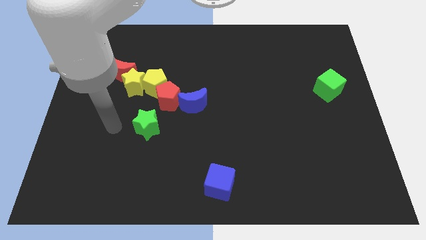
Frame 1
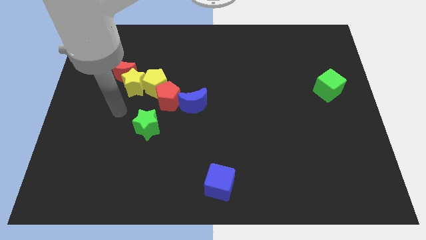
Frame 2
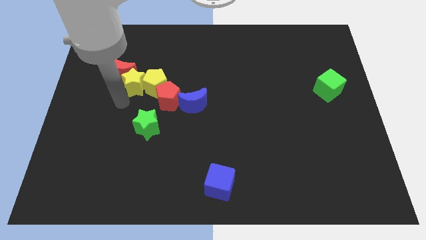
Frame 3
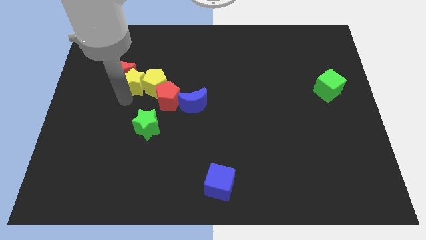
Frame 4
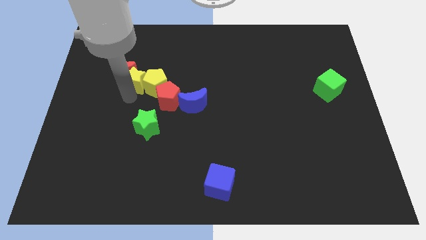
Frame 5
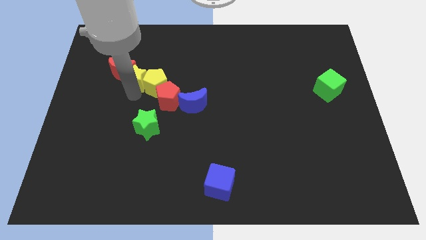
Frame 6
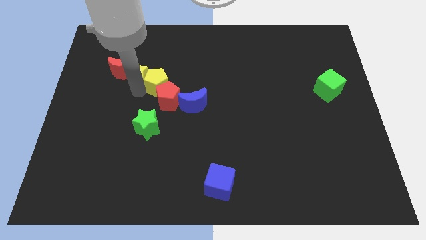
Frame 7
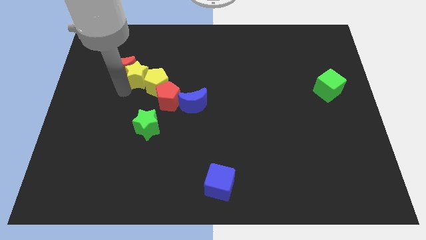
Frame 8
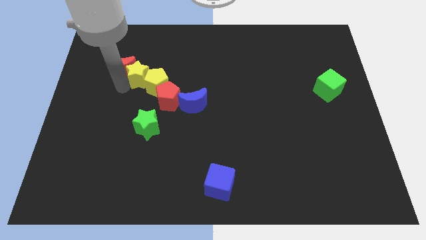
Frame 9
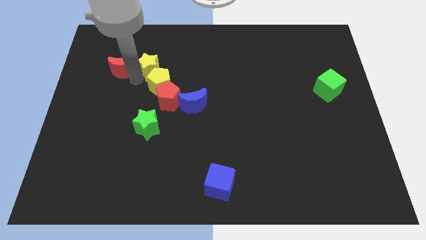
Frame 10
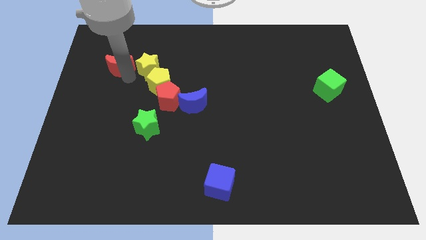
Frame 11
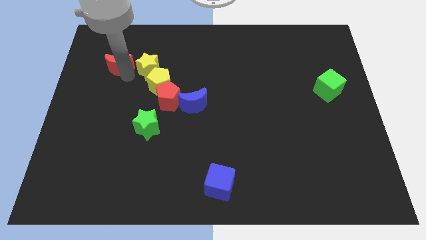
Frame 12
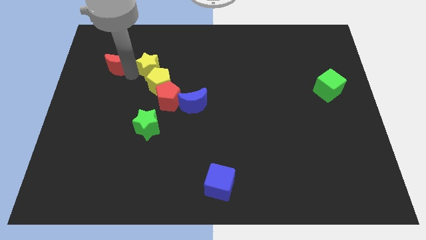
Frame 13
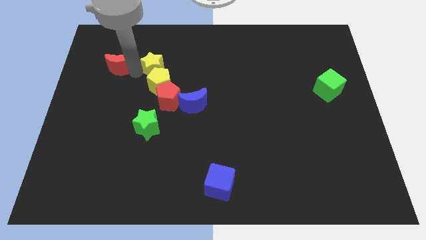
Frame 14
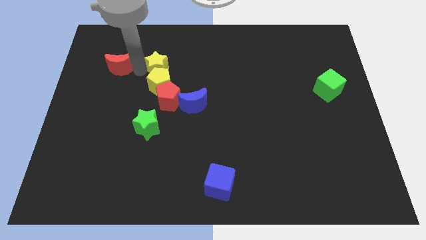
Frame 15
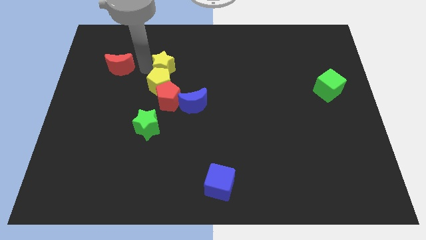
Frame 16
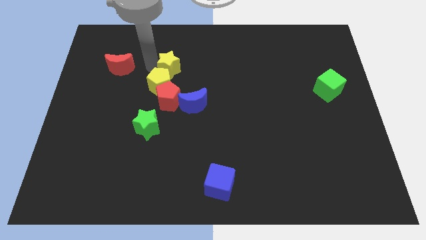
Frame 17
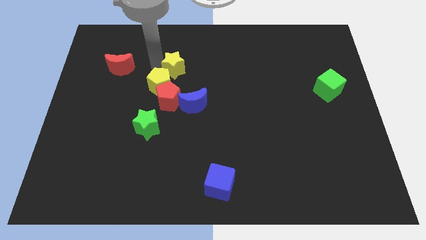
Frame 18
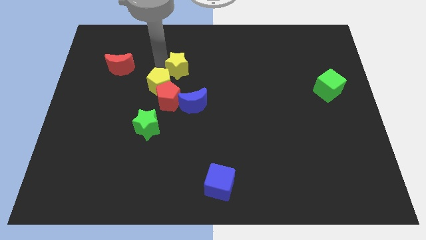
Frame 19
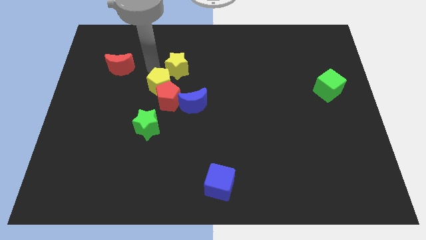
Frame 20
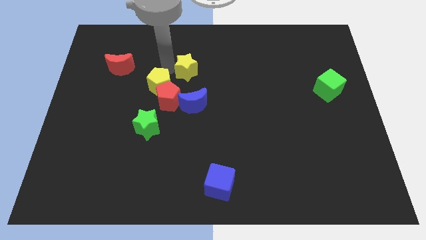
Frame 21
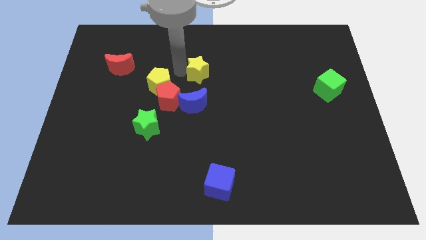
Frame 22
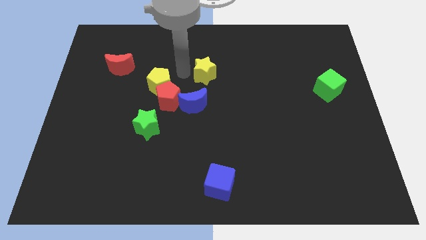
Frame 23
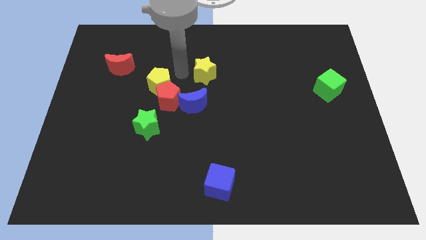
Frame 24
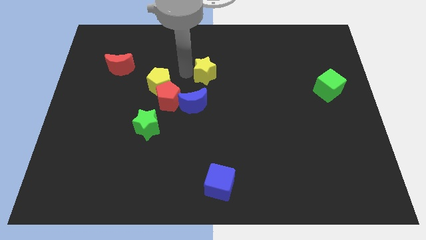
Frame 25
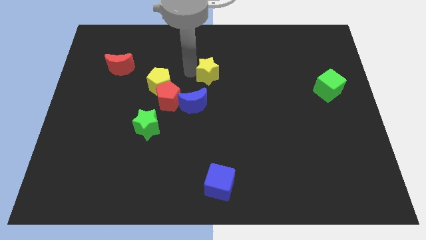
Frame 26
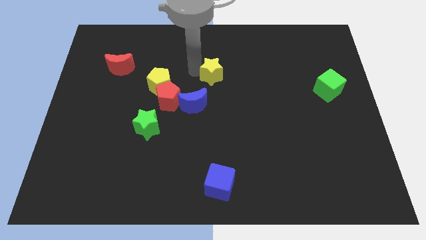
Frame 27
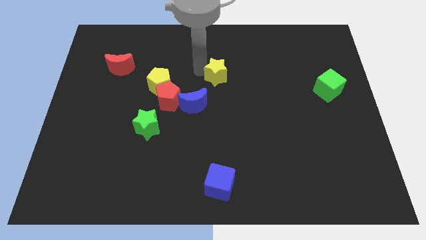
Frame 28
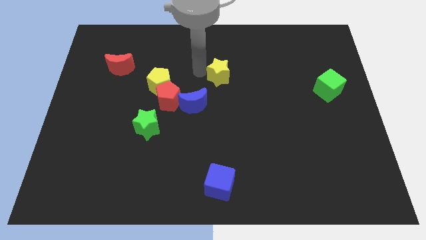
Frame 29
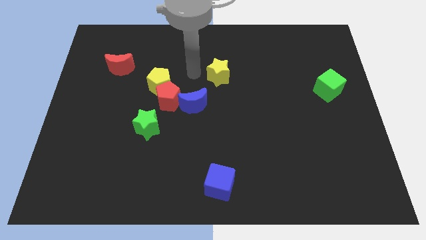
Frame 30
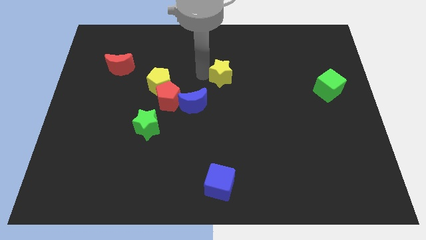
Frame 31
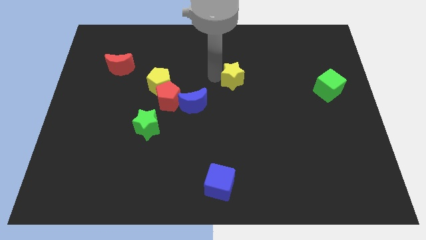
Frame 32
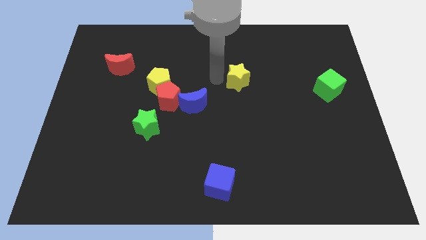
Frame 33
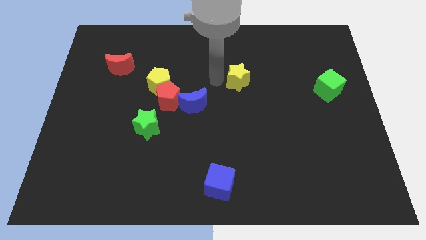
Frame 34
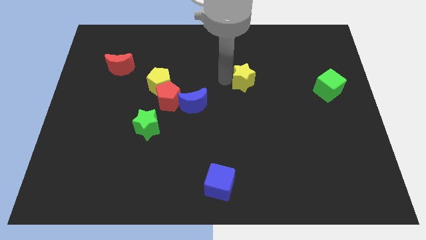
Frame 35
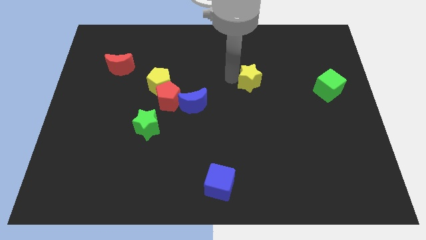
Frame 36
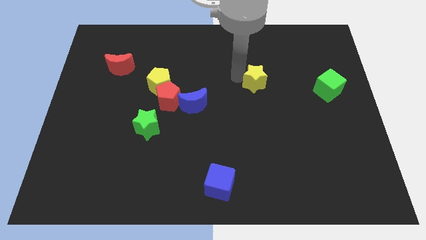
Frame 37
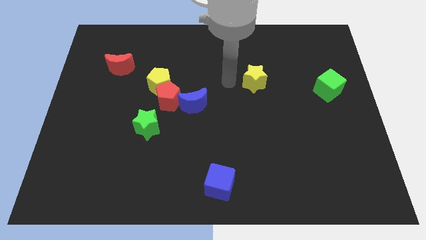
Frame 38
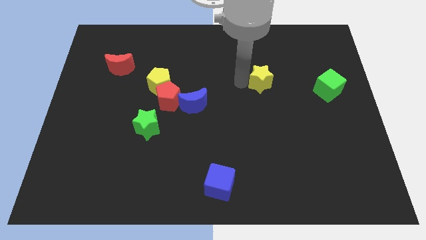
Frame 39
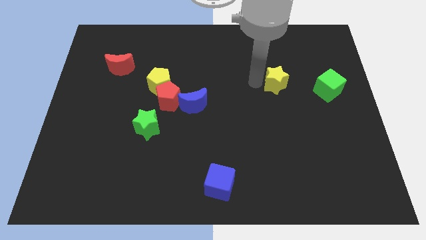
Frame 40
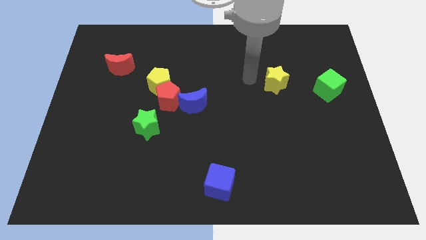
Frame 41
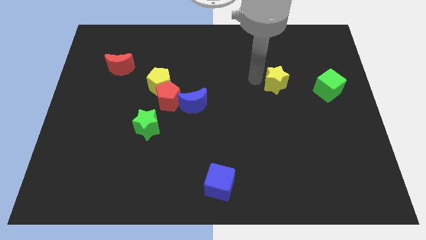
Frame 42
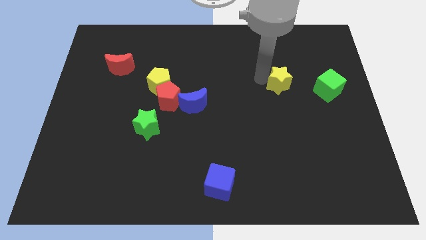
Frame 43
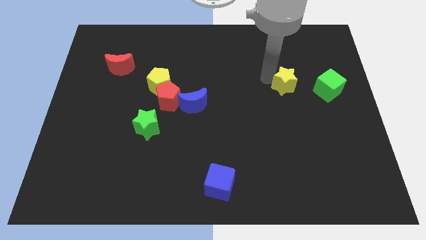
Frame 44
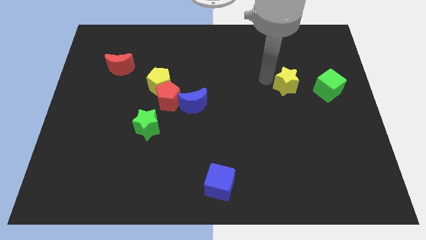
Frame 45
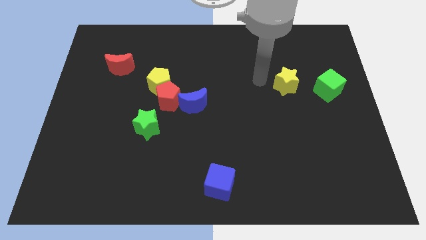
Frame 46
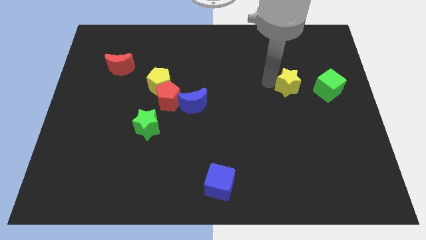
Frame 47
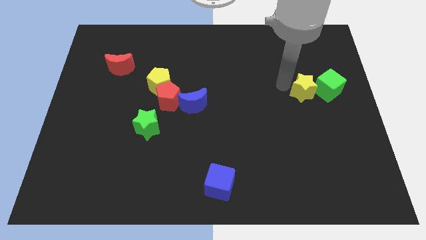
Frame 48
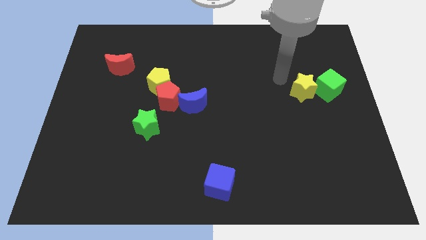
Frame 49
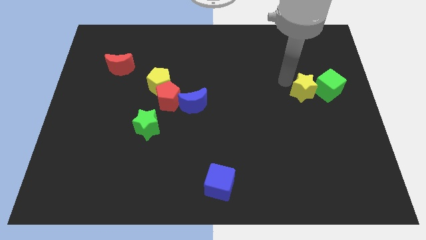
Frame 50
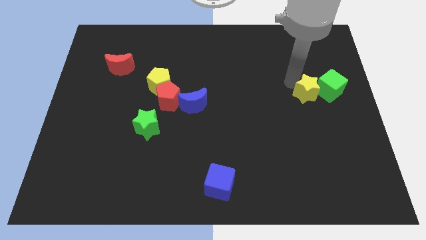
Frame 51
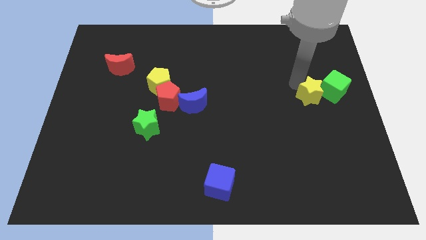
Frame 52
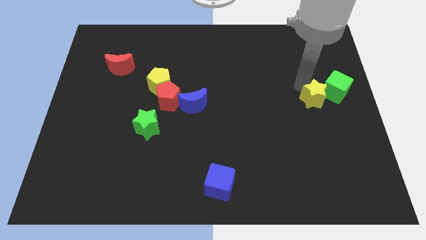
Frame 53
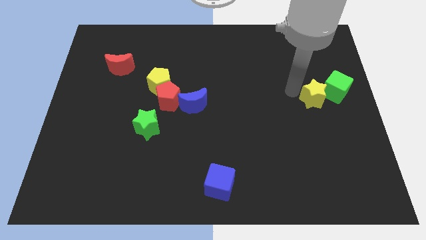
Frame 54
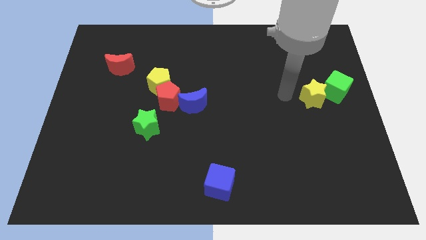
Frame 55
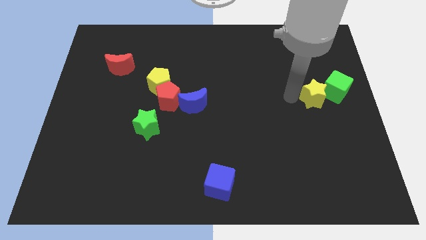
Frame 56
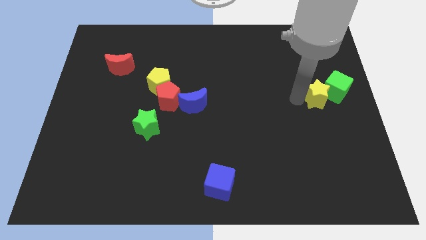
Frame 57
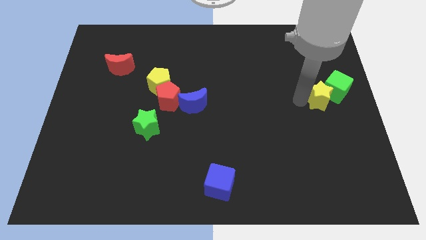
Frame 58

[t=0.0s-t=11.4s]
move the yellow star to the center right
